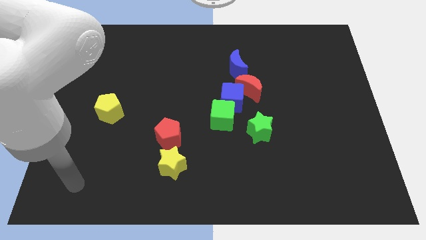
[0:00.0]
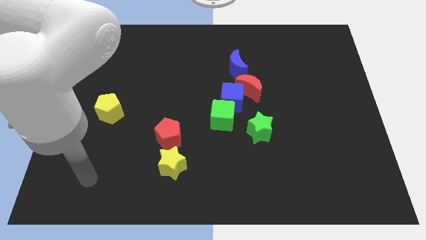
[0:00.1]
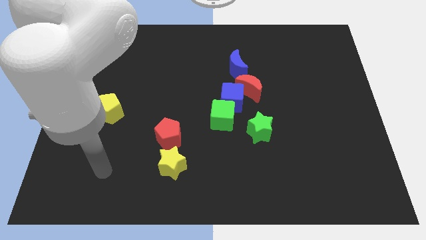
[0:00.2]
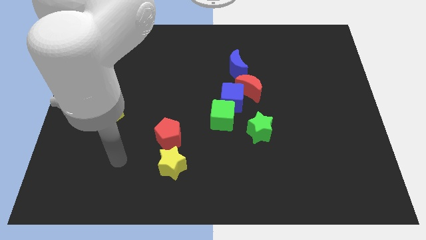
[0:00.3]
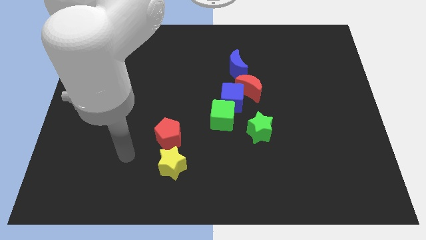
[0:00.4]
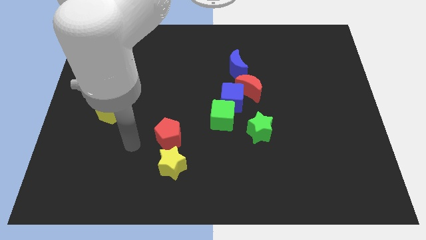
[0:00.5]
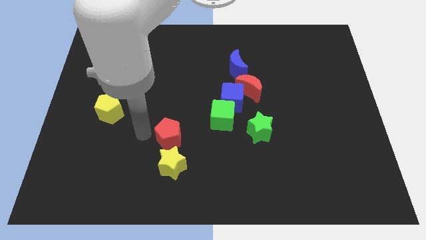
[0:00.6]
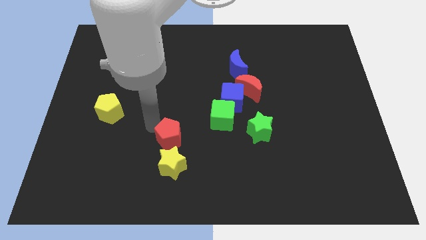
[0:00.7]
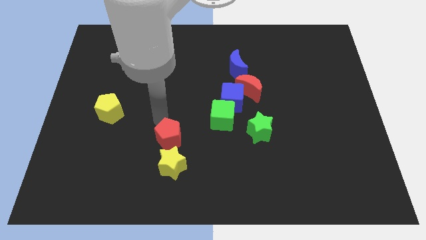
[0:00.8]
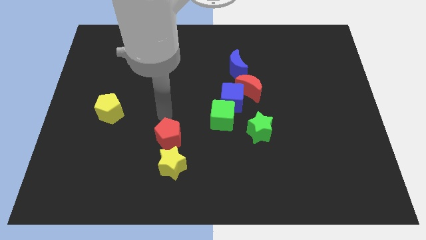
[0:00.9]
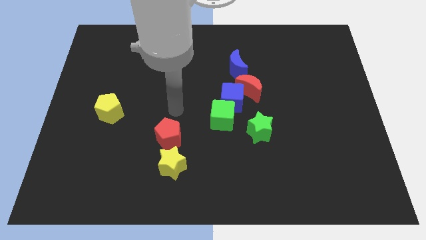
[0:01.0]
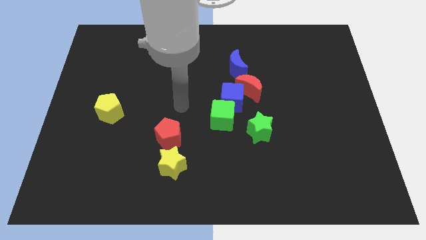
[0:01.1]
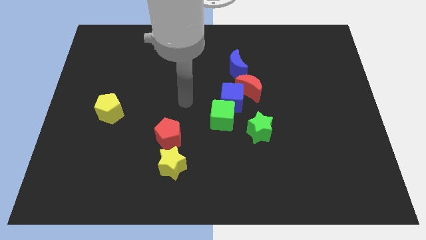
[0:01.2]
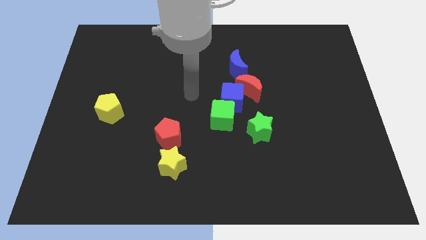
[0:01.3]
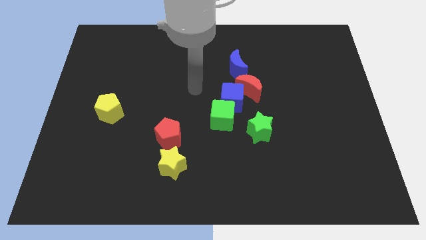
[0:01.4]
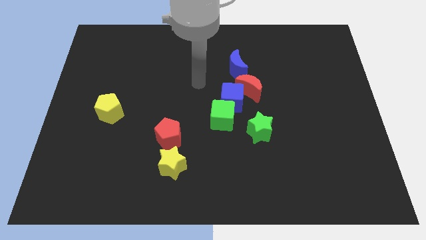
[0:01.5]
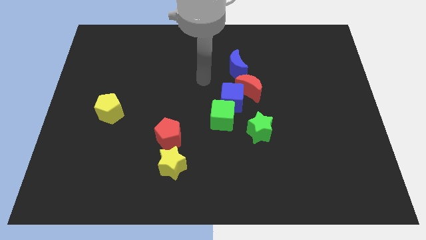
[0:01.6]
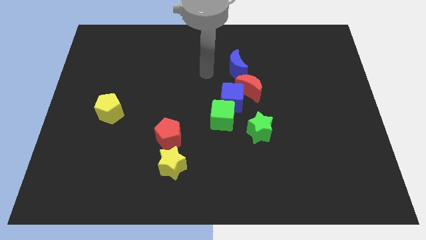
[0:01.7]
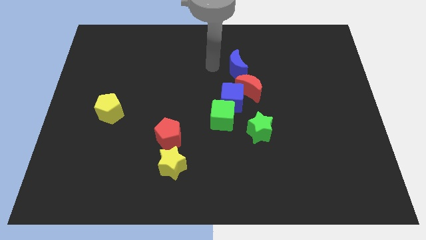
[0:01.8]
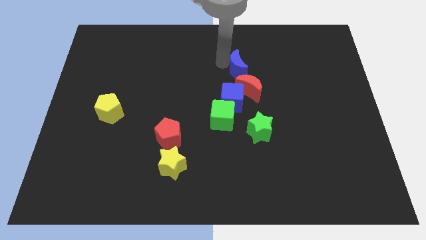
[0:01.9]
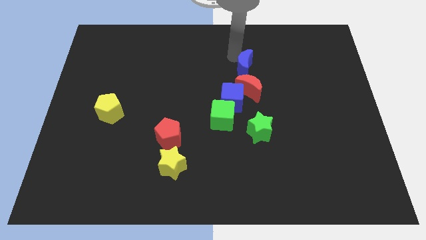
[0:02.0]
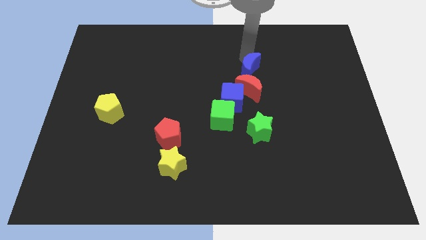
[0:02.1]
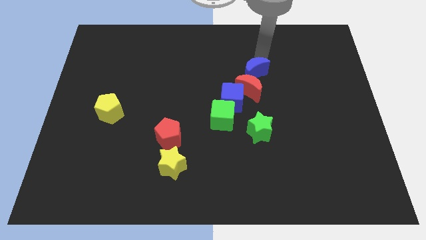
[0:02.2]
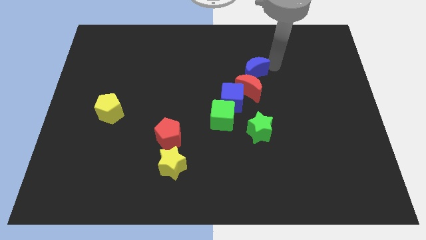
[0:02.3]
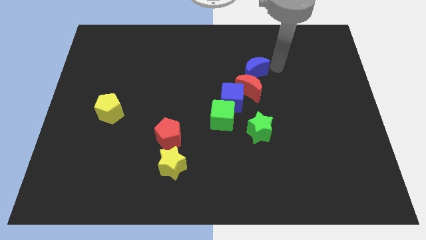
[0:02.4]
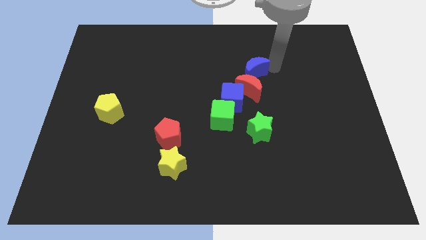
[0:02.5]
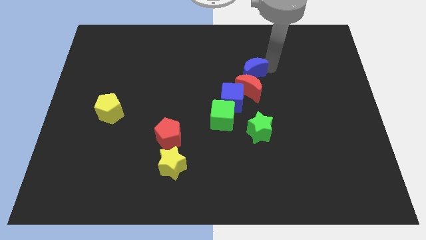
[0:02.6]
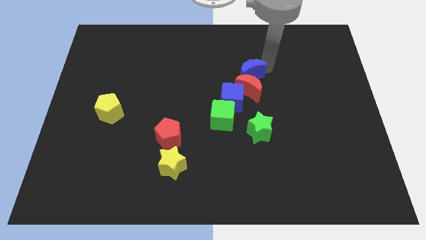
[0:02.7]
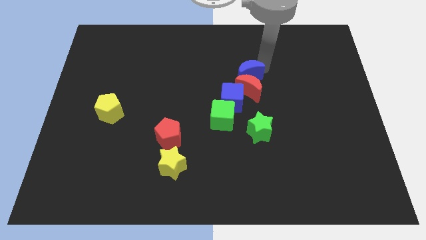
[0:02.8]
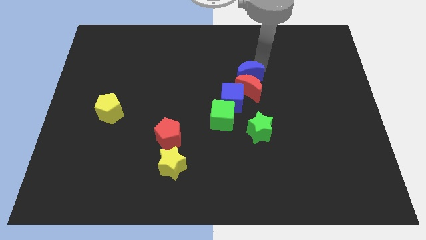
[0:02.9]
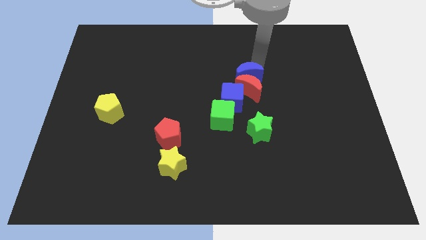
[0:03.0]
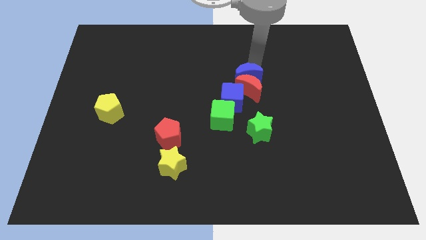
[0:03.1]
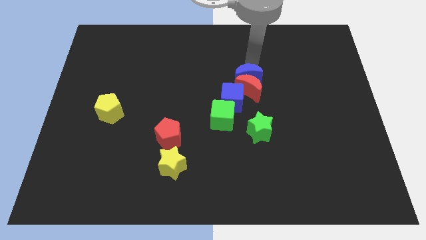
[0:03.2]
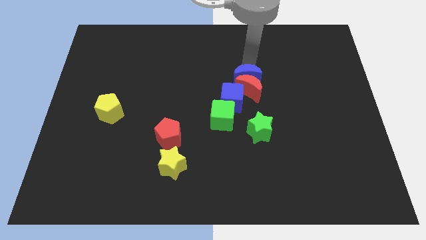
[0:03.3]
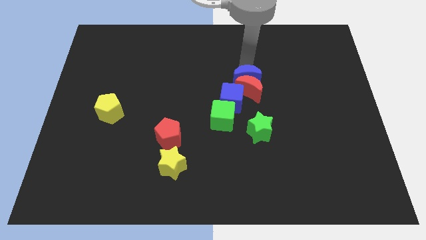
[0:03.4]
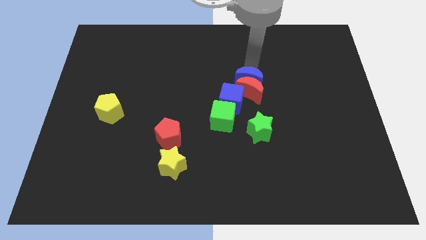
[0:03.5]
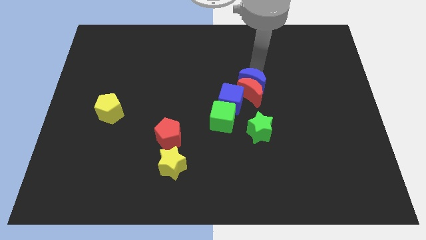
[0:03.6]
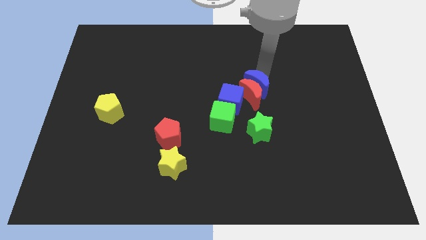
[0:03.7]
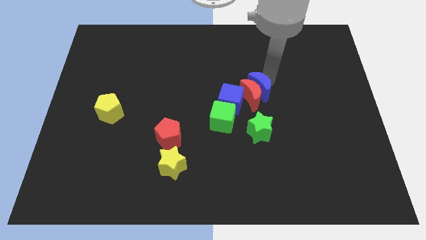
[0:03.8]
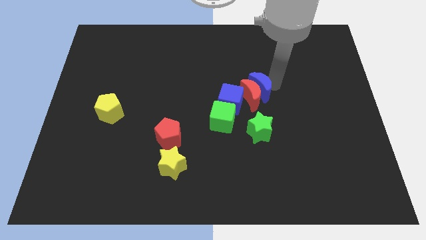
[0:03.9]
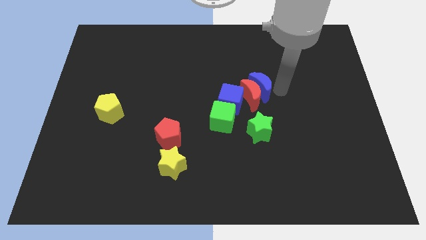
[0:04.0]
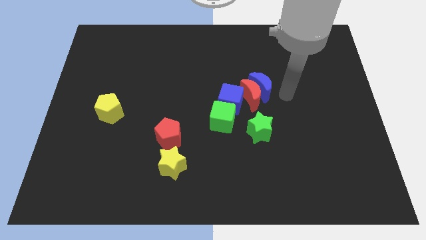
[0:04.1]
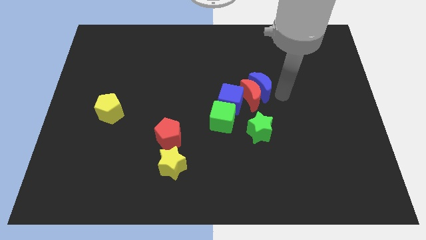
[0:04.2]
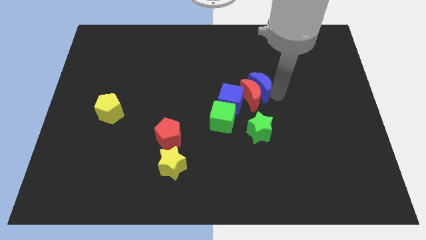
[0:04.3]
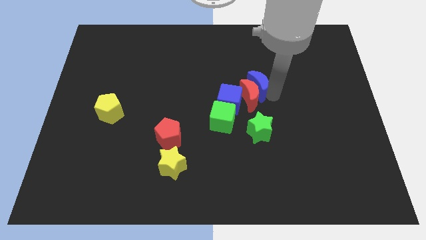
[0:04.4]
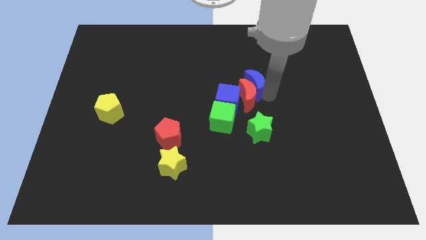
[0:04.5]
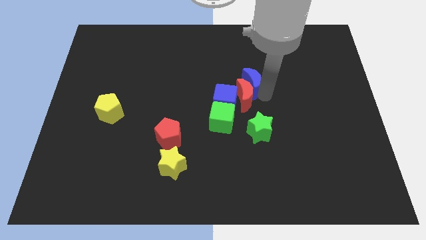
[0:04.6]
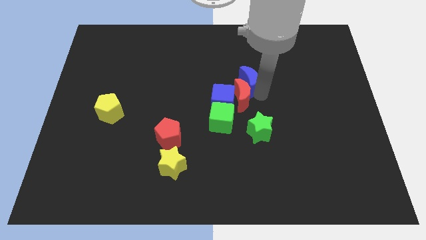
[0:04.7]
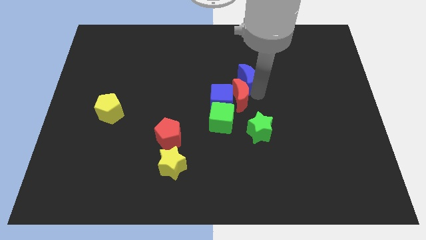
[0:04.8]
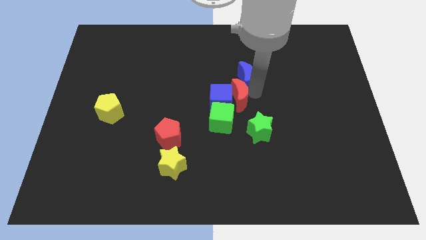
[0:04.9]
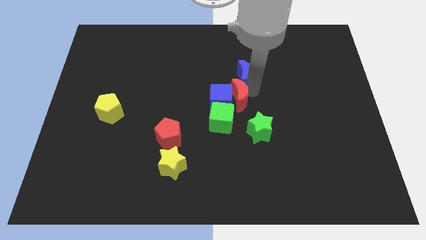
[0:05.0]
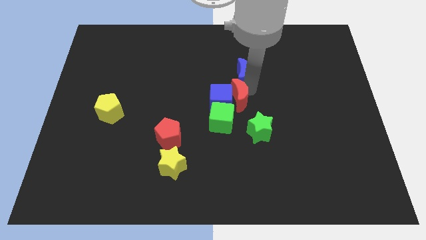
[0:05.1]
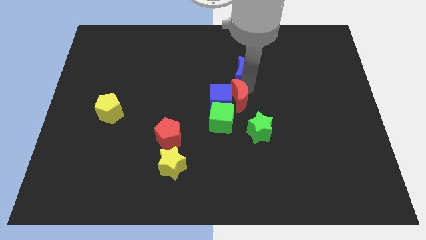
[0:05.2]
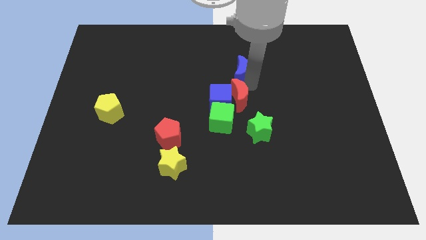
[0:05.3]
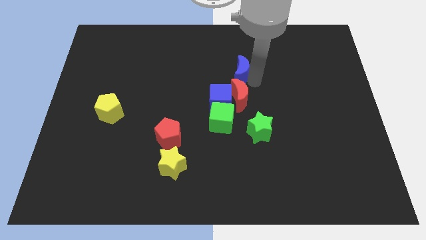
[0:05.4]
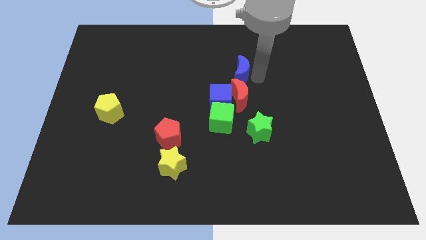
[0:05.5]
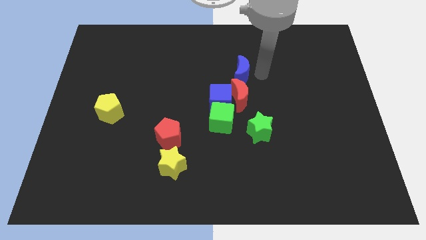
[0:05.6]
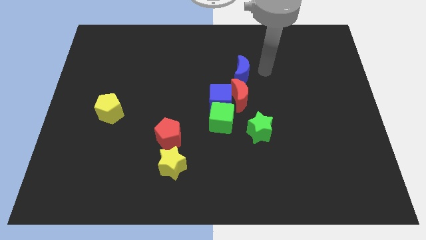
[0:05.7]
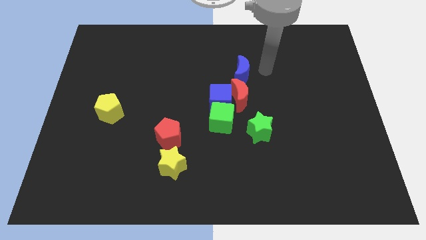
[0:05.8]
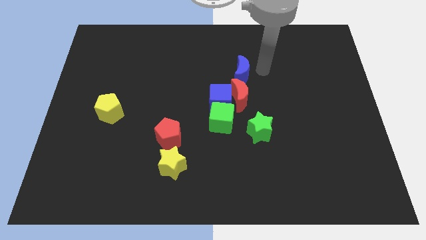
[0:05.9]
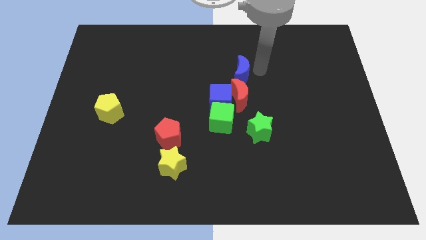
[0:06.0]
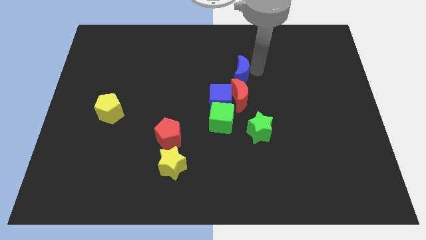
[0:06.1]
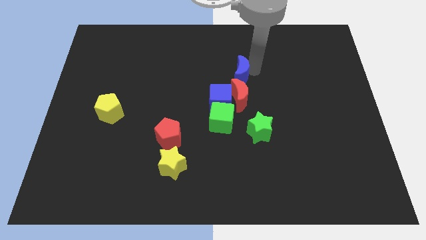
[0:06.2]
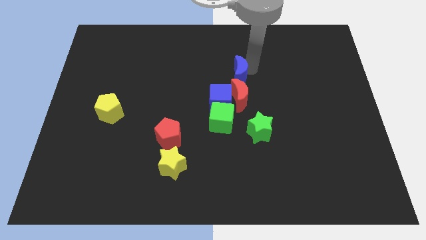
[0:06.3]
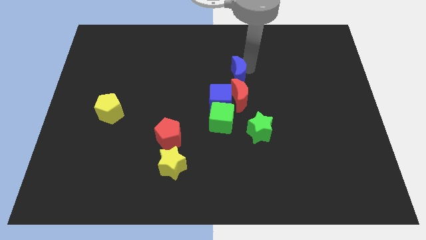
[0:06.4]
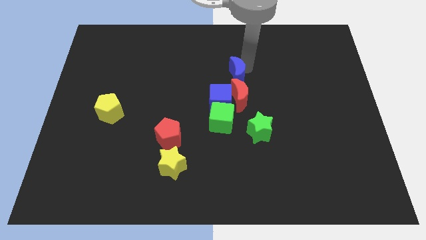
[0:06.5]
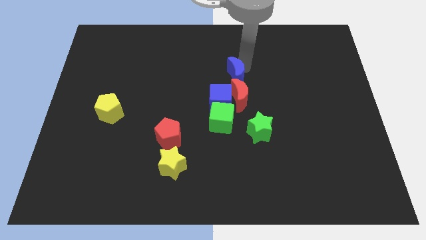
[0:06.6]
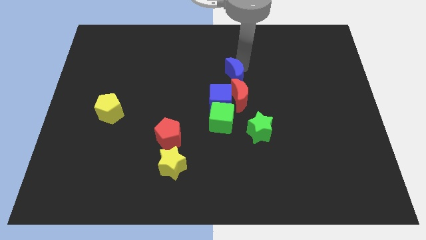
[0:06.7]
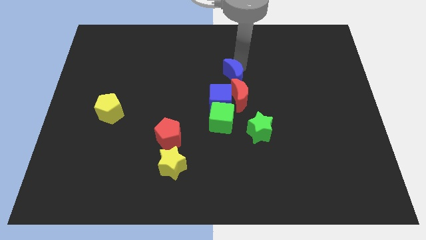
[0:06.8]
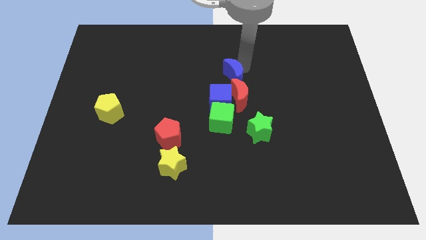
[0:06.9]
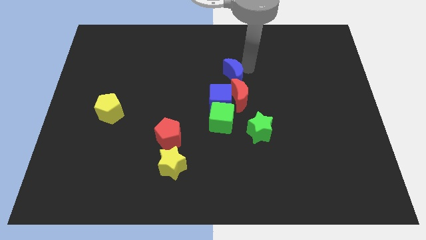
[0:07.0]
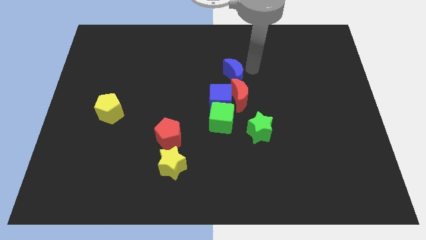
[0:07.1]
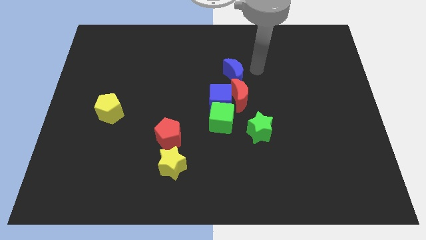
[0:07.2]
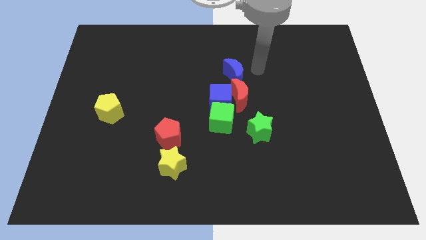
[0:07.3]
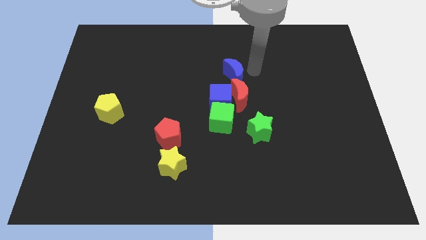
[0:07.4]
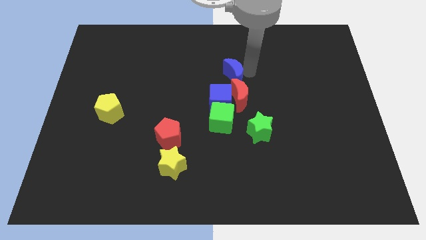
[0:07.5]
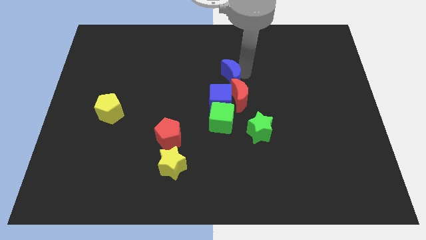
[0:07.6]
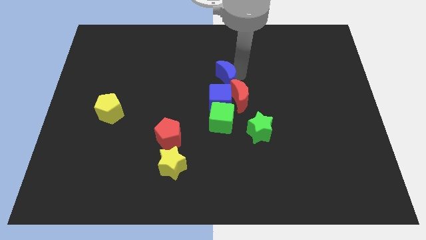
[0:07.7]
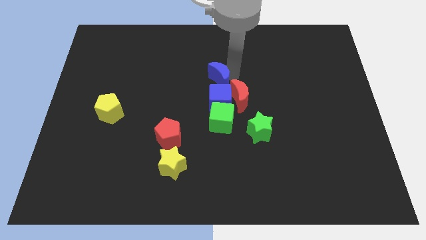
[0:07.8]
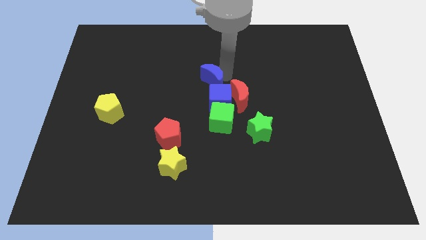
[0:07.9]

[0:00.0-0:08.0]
slide the blue moon downwards and to the left a little
